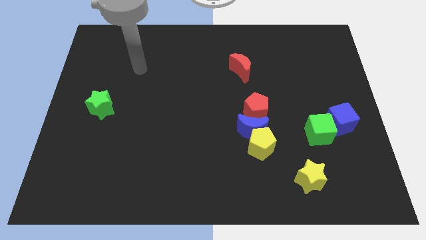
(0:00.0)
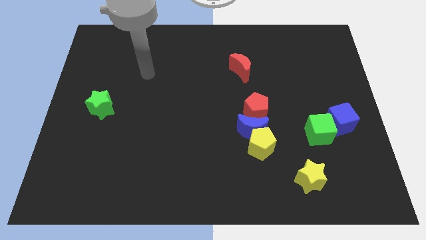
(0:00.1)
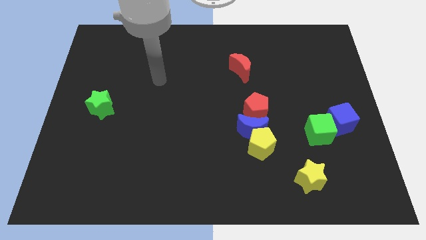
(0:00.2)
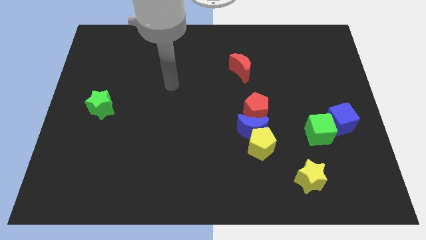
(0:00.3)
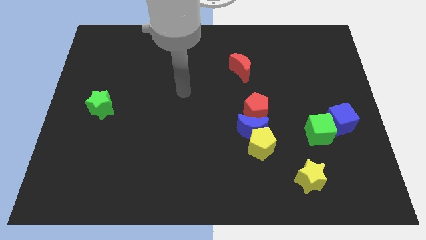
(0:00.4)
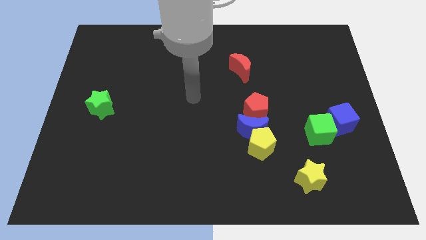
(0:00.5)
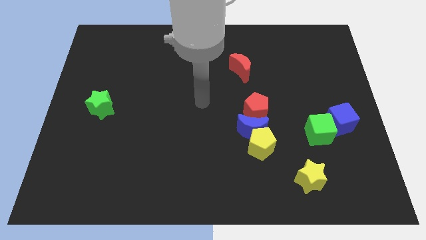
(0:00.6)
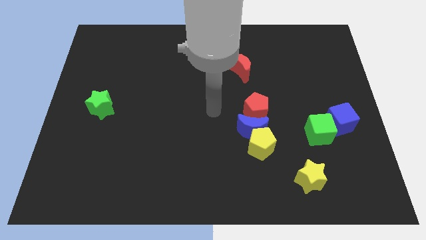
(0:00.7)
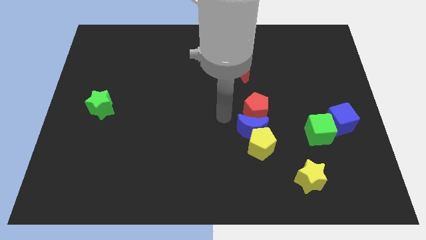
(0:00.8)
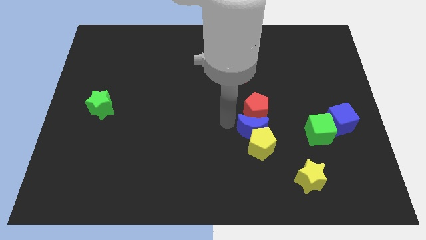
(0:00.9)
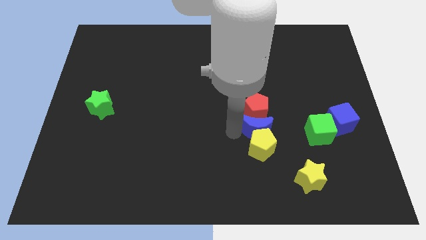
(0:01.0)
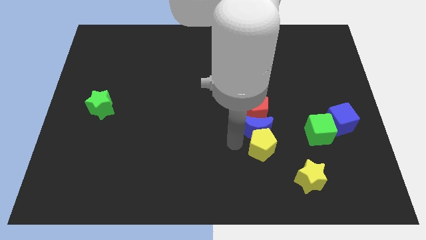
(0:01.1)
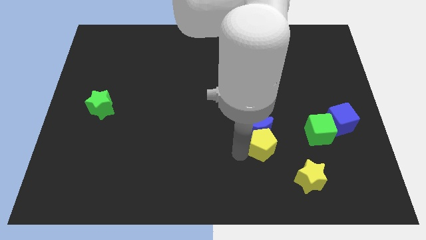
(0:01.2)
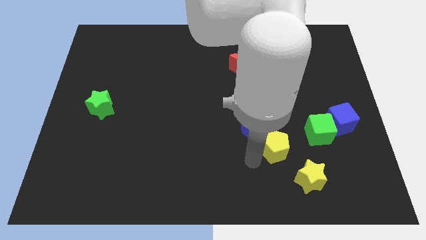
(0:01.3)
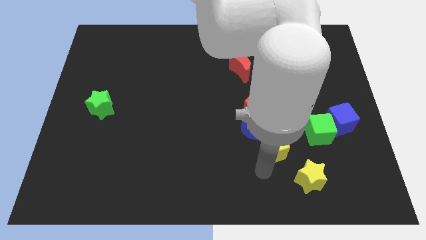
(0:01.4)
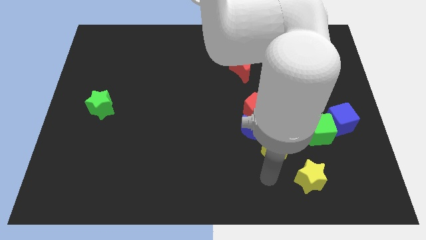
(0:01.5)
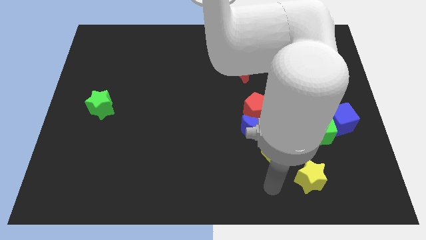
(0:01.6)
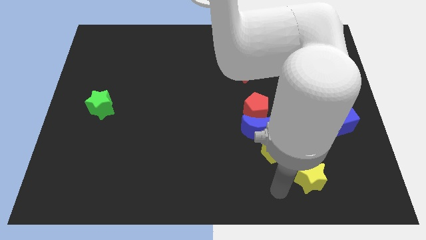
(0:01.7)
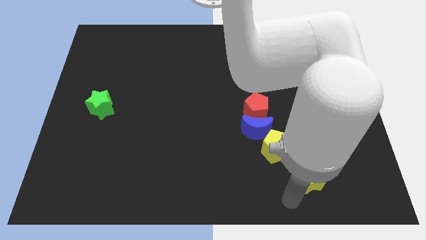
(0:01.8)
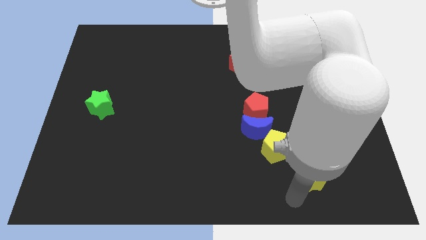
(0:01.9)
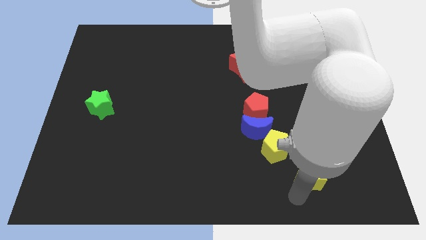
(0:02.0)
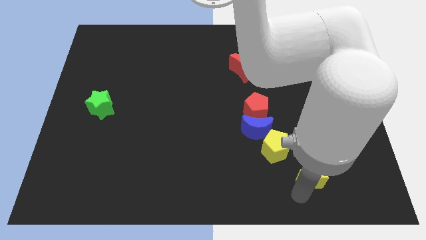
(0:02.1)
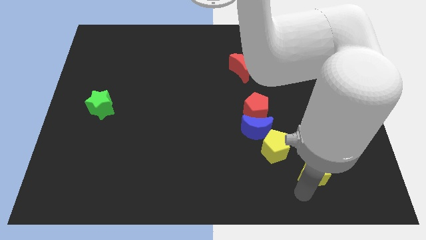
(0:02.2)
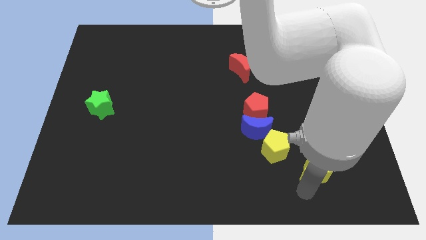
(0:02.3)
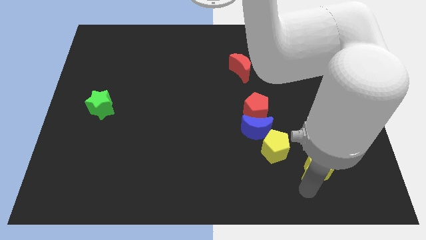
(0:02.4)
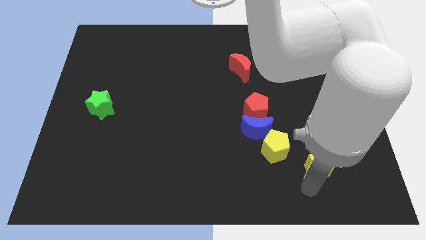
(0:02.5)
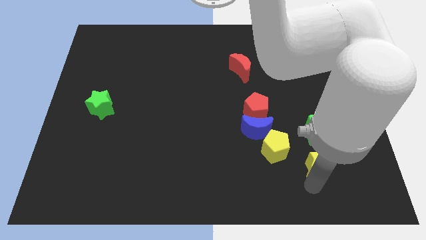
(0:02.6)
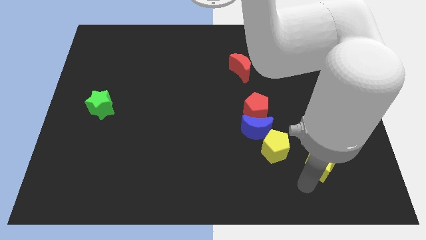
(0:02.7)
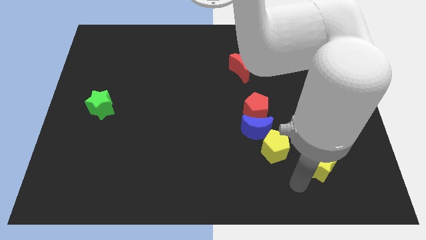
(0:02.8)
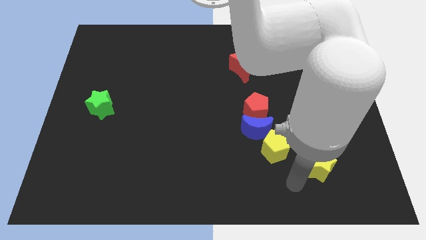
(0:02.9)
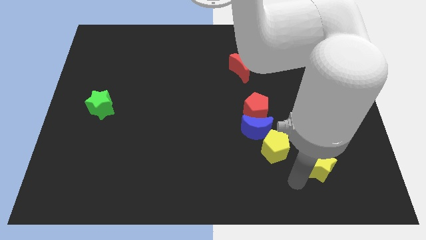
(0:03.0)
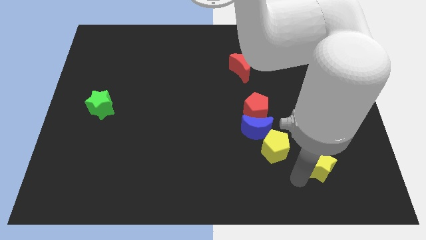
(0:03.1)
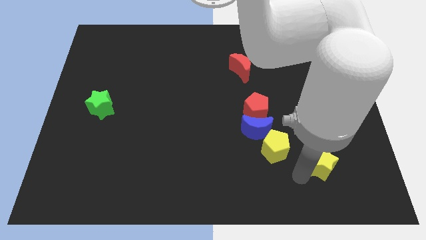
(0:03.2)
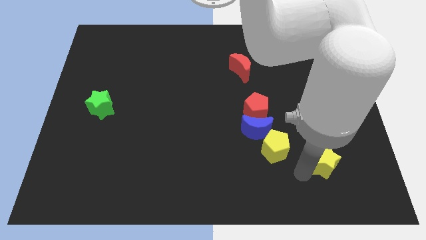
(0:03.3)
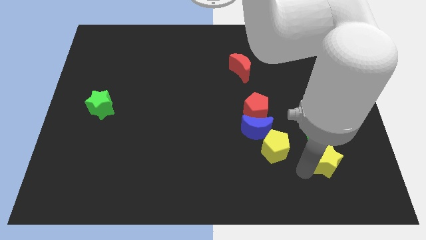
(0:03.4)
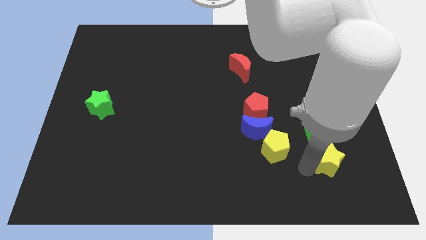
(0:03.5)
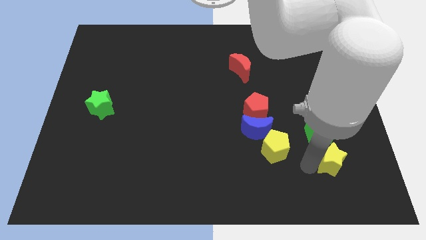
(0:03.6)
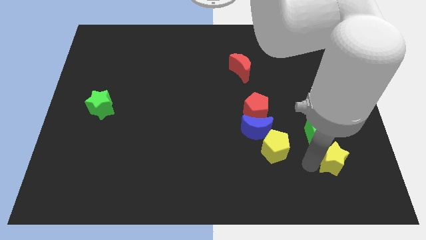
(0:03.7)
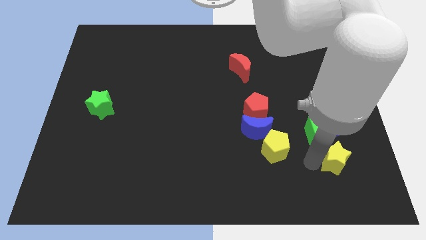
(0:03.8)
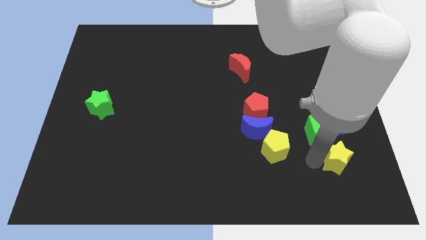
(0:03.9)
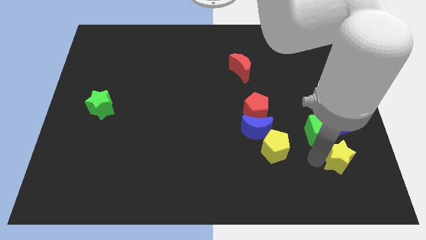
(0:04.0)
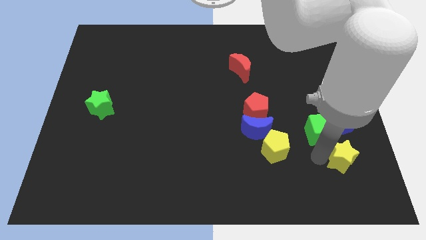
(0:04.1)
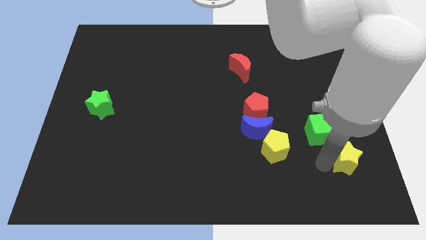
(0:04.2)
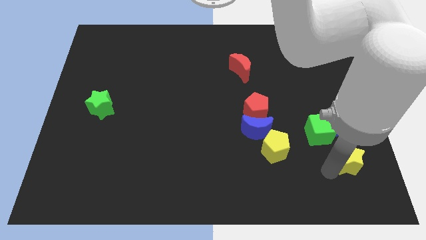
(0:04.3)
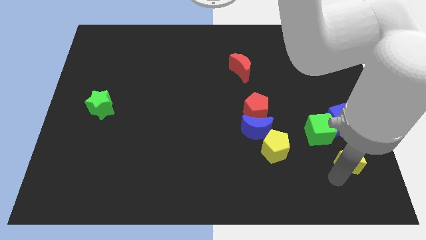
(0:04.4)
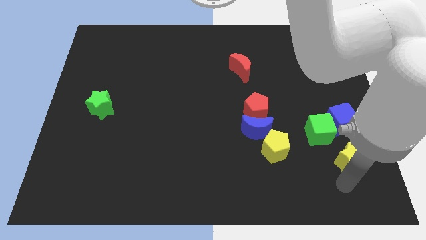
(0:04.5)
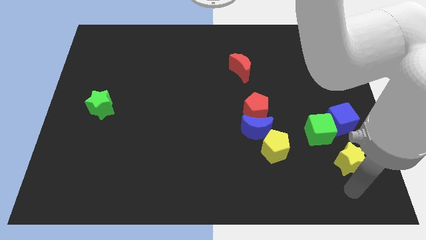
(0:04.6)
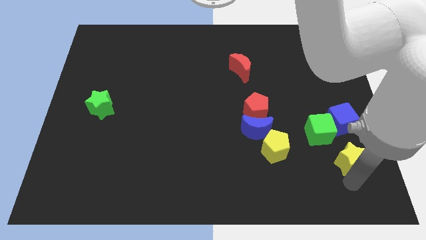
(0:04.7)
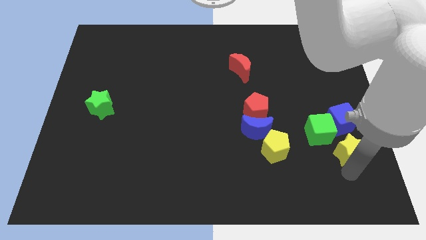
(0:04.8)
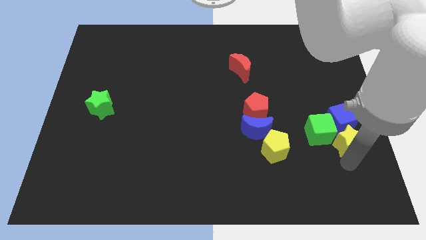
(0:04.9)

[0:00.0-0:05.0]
move the yellow star towards the blue cube

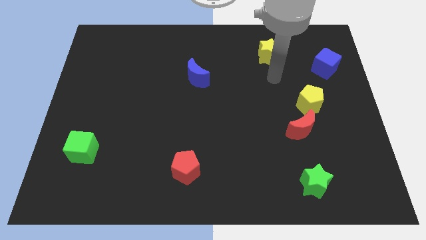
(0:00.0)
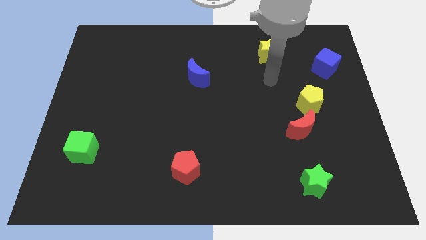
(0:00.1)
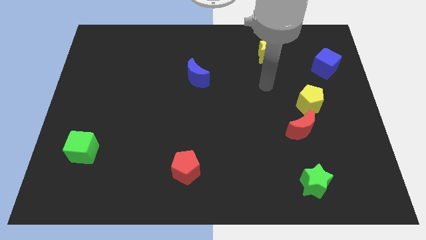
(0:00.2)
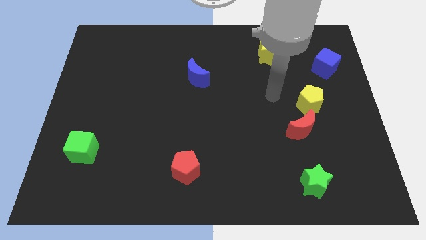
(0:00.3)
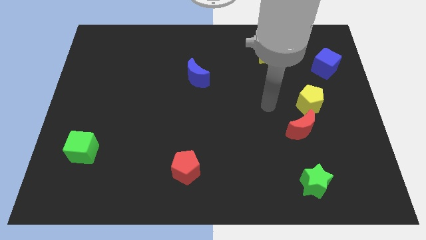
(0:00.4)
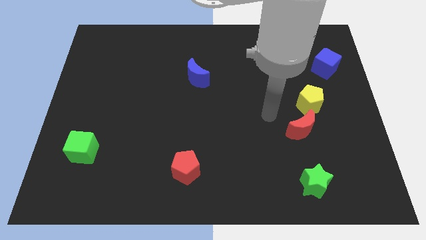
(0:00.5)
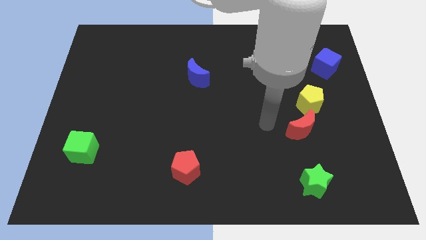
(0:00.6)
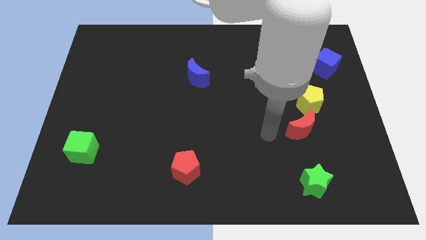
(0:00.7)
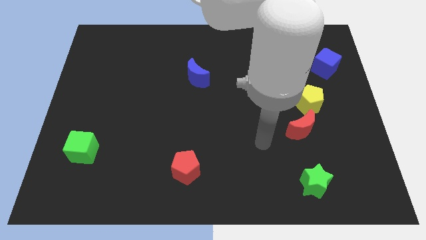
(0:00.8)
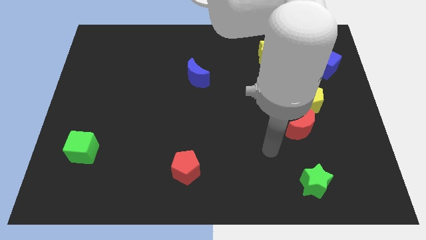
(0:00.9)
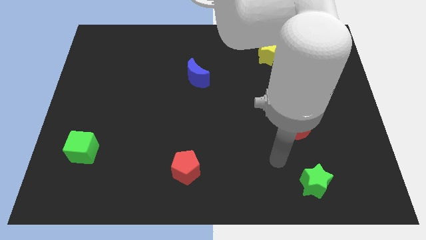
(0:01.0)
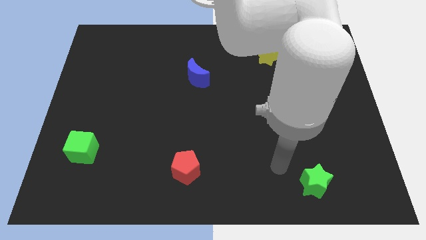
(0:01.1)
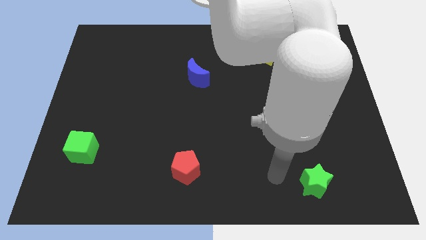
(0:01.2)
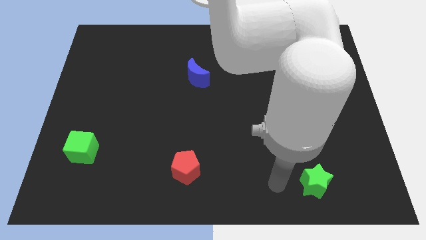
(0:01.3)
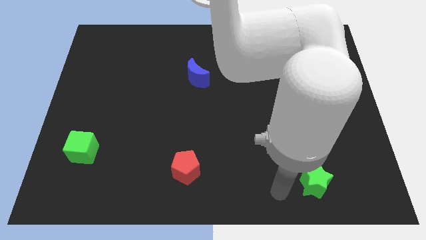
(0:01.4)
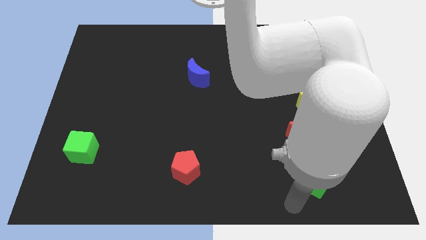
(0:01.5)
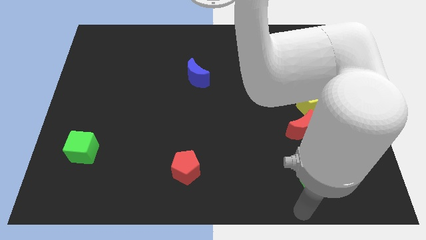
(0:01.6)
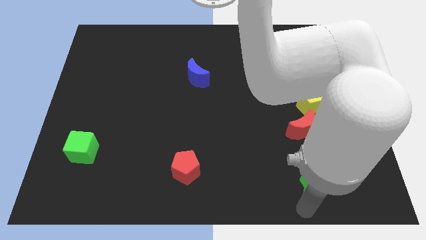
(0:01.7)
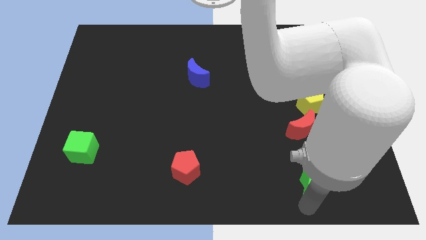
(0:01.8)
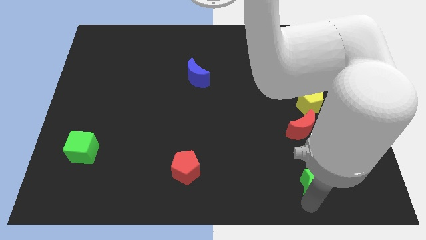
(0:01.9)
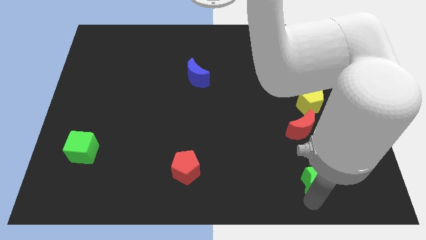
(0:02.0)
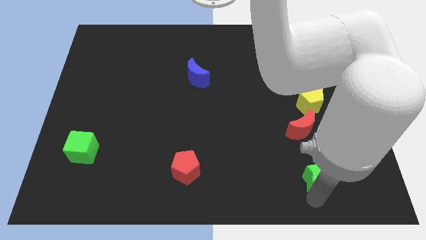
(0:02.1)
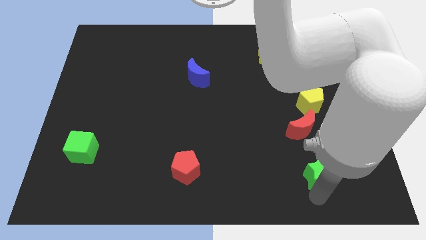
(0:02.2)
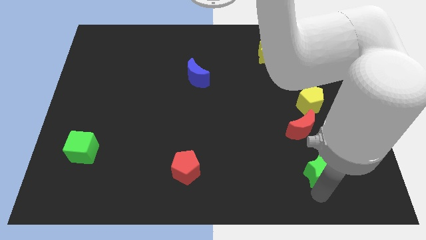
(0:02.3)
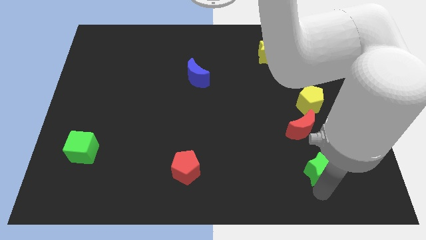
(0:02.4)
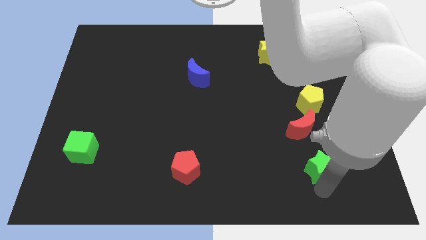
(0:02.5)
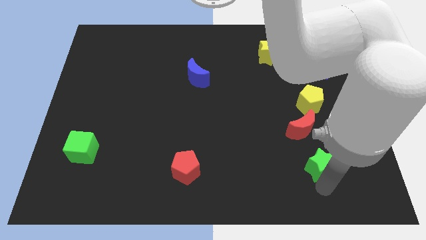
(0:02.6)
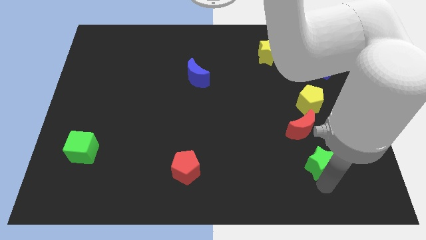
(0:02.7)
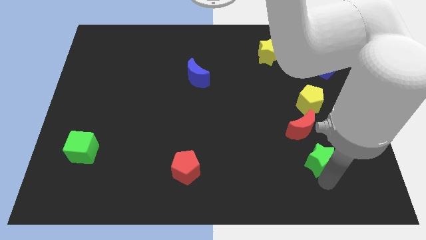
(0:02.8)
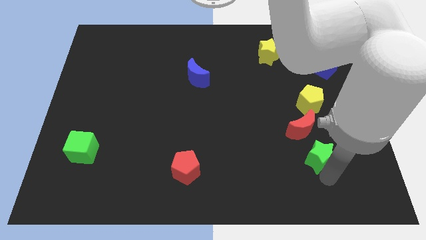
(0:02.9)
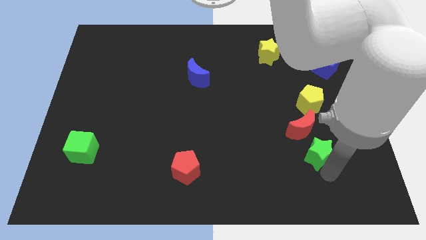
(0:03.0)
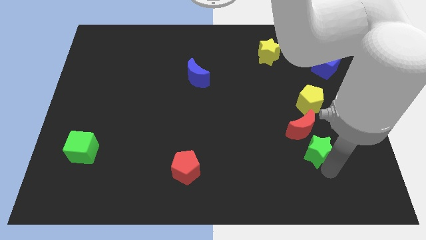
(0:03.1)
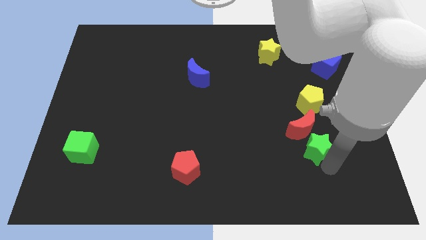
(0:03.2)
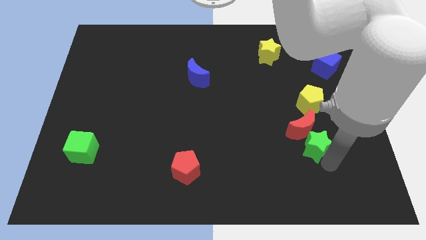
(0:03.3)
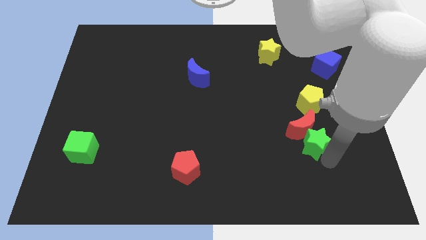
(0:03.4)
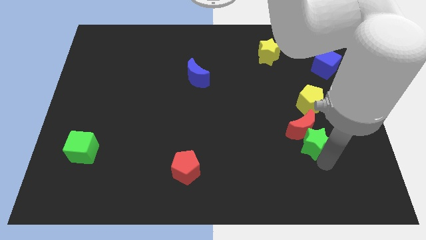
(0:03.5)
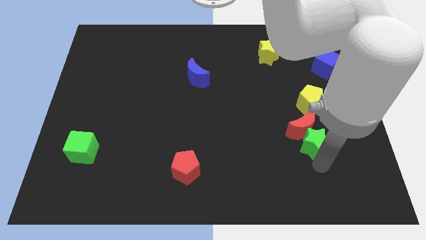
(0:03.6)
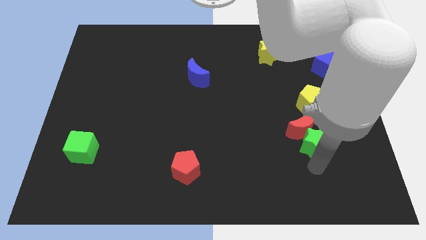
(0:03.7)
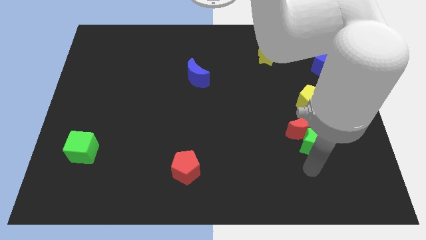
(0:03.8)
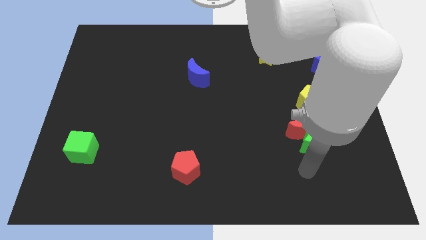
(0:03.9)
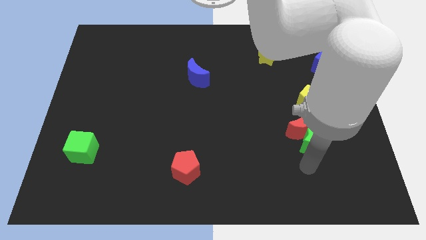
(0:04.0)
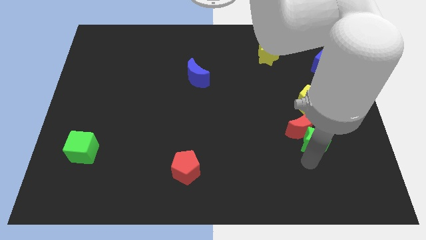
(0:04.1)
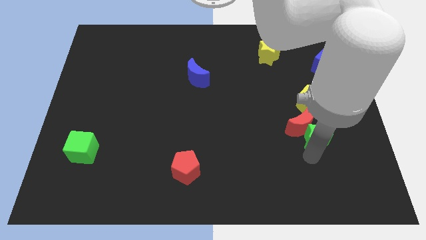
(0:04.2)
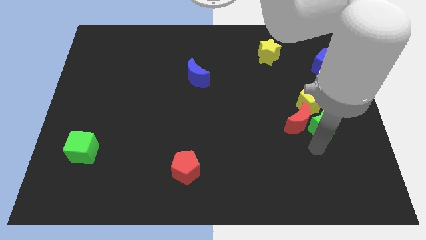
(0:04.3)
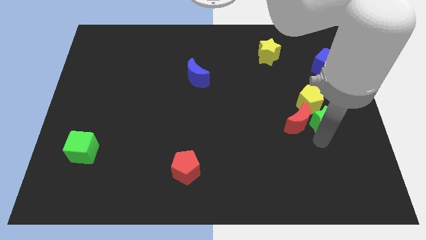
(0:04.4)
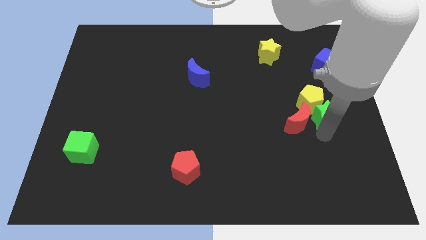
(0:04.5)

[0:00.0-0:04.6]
slide the green star close to the yellow pentagon
